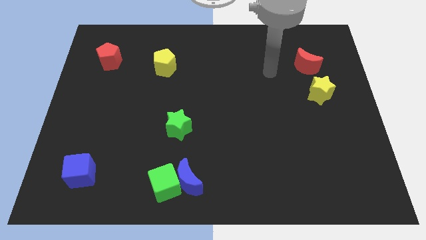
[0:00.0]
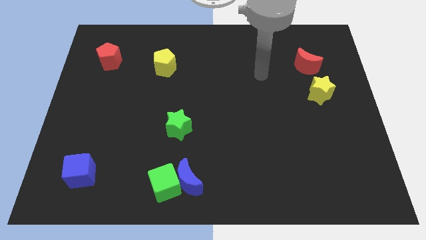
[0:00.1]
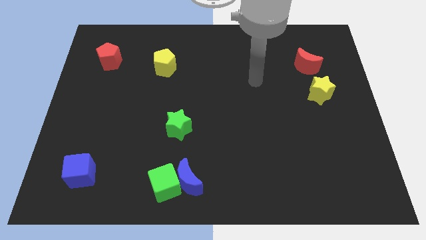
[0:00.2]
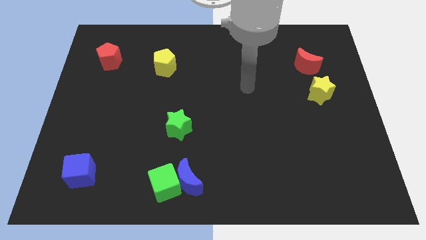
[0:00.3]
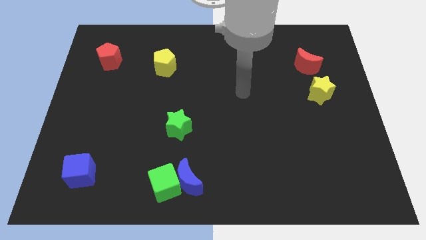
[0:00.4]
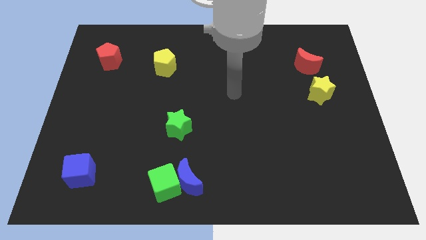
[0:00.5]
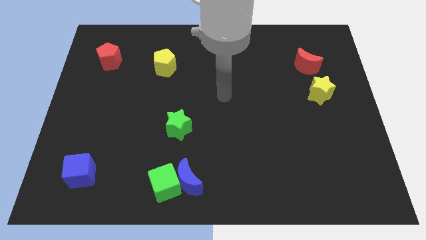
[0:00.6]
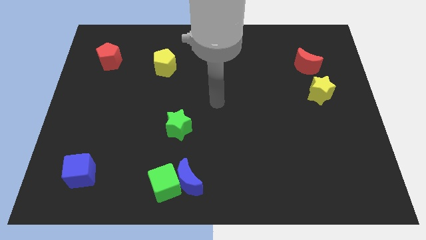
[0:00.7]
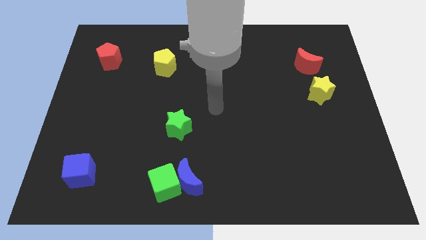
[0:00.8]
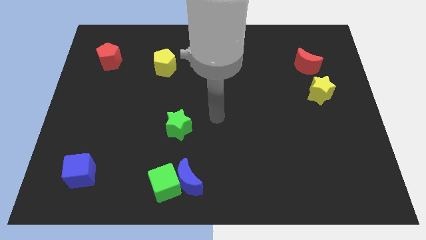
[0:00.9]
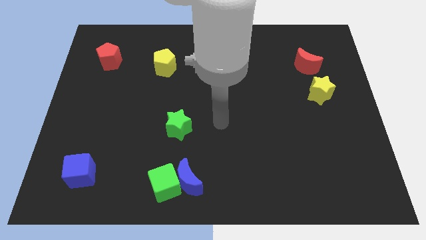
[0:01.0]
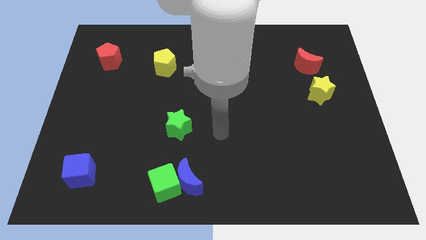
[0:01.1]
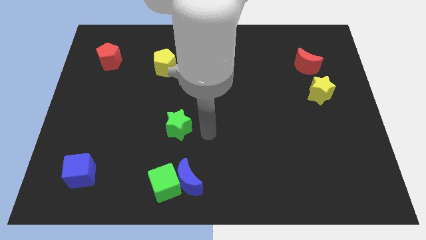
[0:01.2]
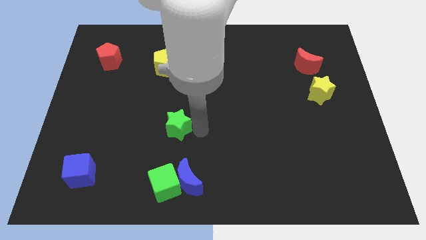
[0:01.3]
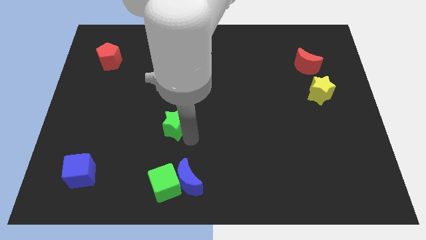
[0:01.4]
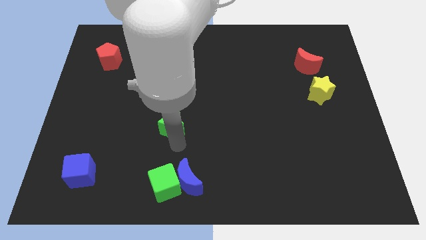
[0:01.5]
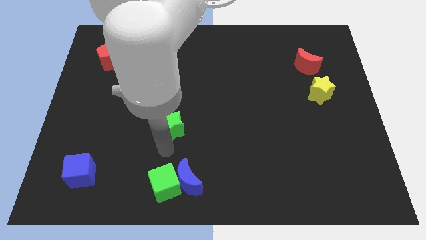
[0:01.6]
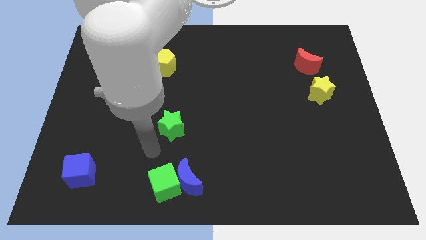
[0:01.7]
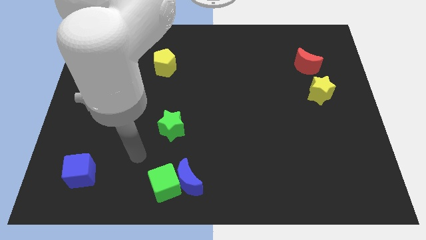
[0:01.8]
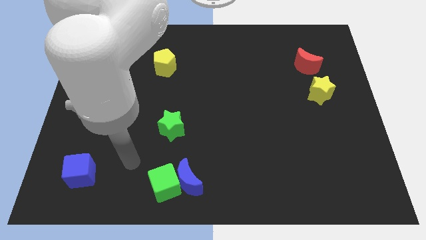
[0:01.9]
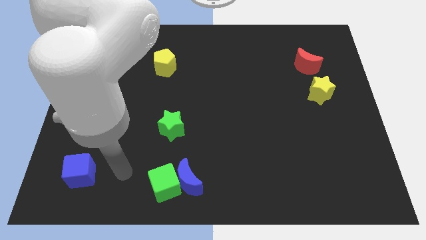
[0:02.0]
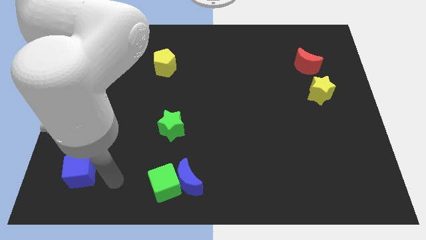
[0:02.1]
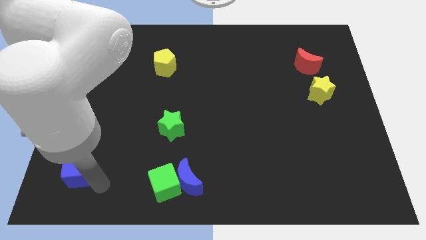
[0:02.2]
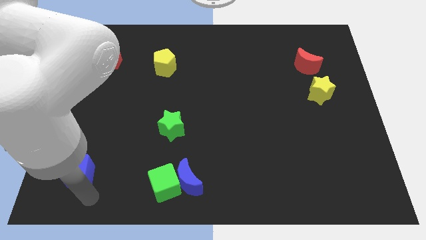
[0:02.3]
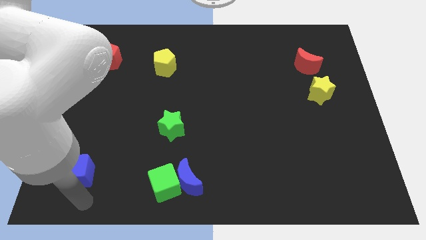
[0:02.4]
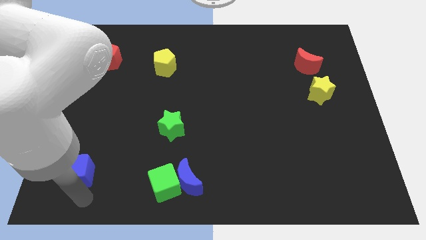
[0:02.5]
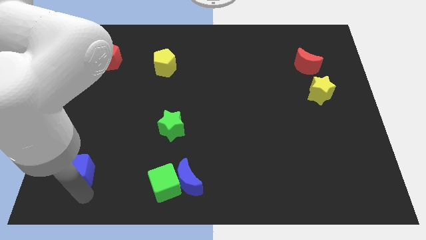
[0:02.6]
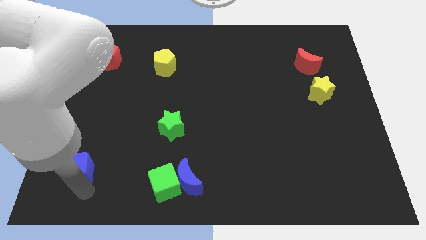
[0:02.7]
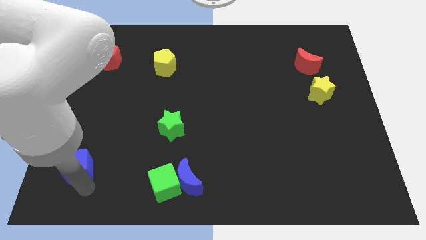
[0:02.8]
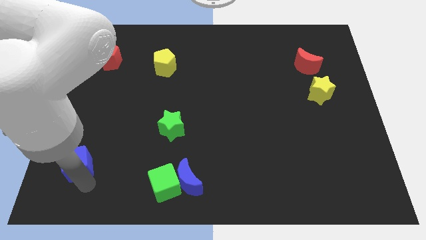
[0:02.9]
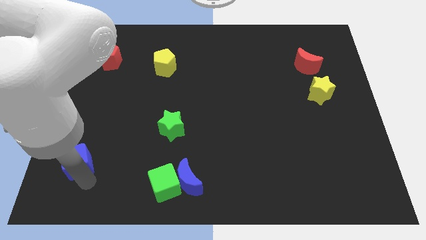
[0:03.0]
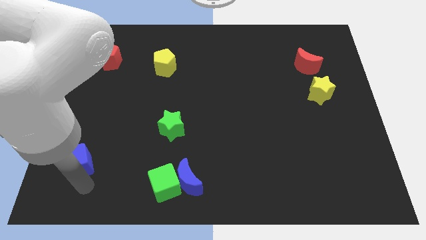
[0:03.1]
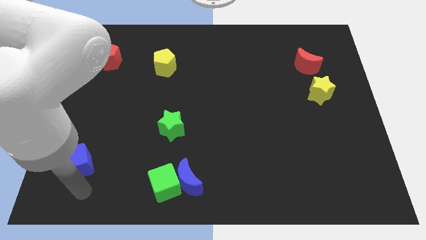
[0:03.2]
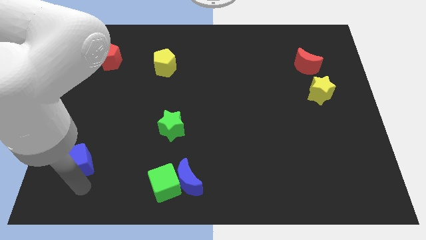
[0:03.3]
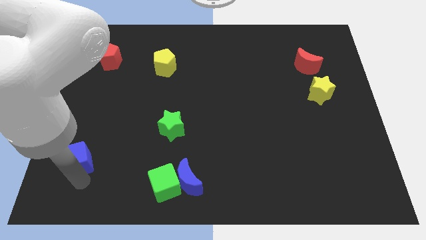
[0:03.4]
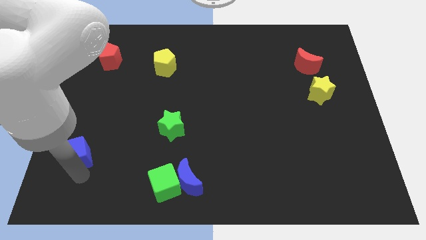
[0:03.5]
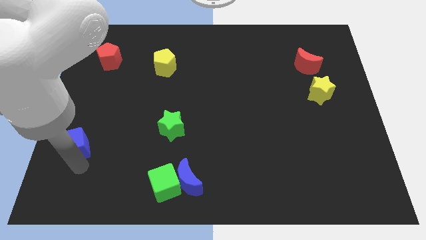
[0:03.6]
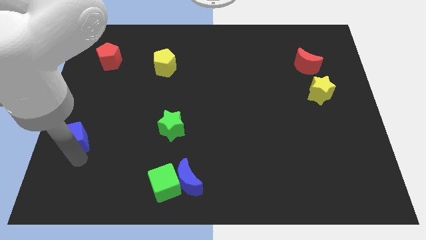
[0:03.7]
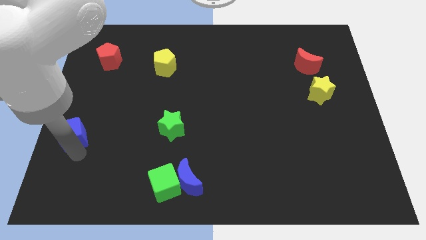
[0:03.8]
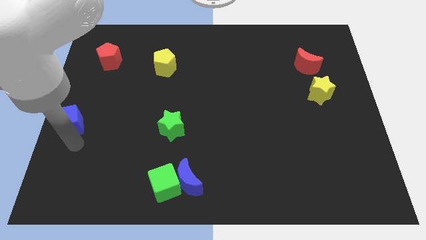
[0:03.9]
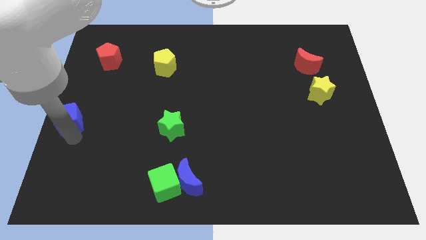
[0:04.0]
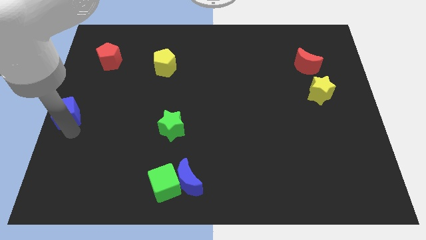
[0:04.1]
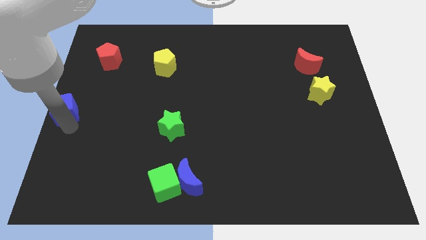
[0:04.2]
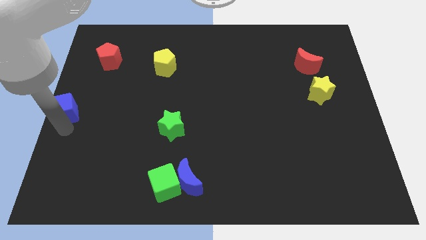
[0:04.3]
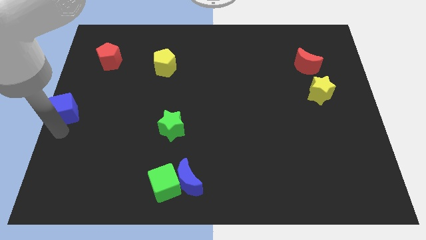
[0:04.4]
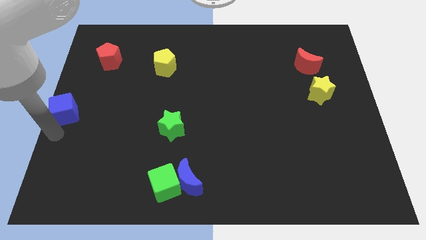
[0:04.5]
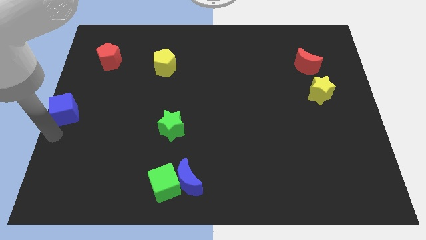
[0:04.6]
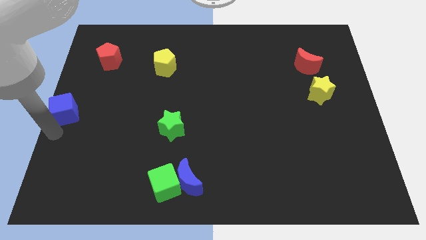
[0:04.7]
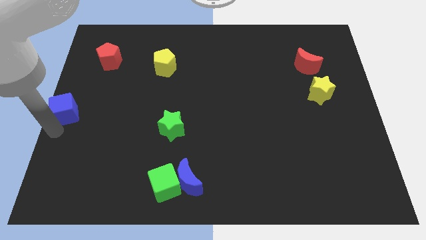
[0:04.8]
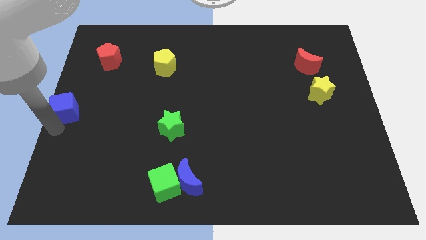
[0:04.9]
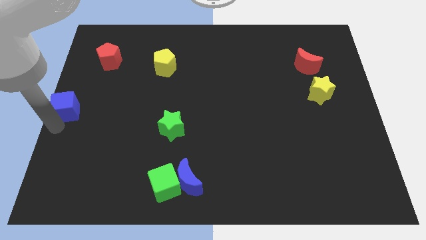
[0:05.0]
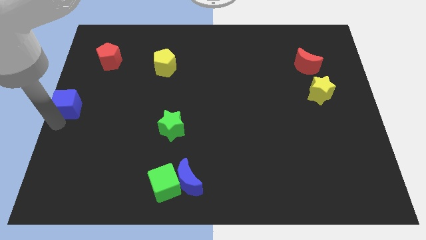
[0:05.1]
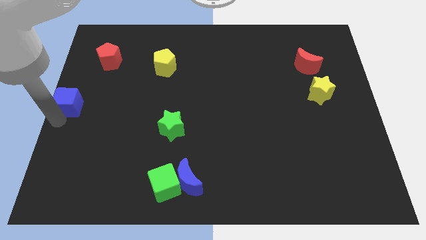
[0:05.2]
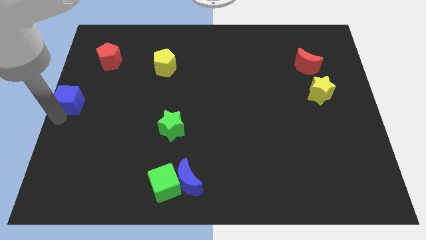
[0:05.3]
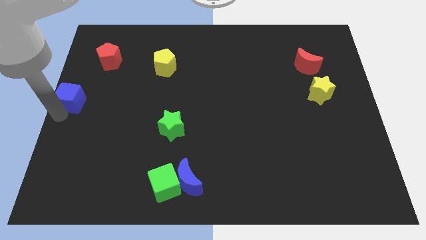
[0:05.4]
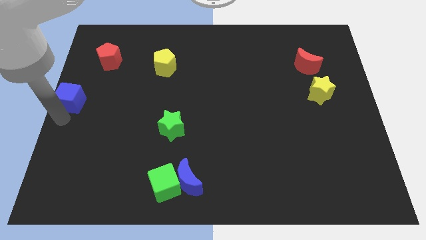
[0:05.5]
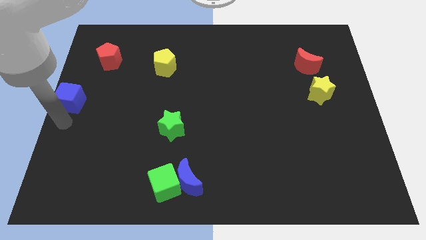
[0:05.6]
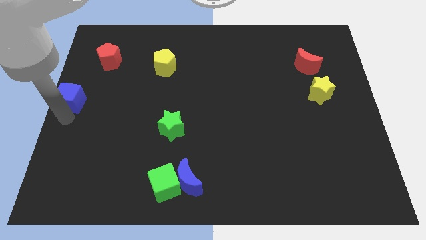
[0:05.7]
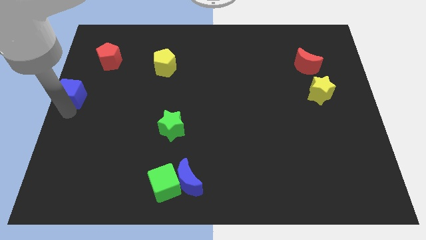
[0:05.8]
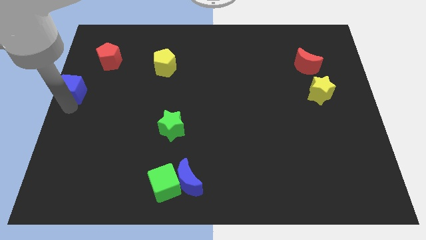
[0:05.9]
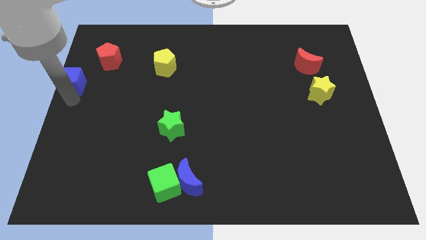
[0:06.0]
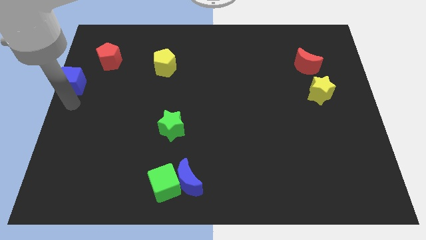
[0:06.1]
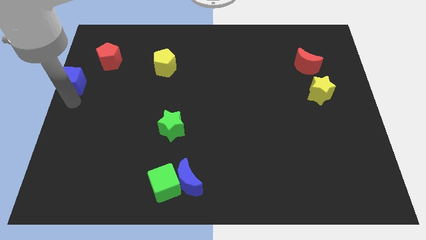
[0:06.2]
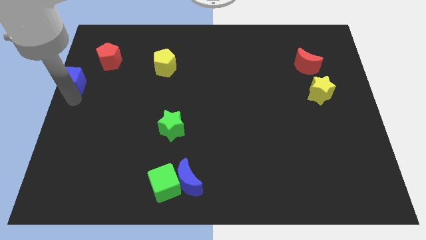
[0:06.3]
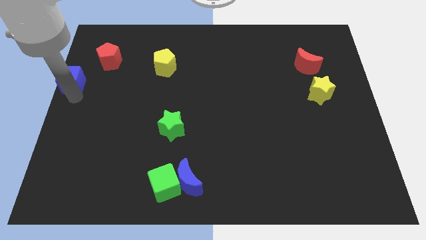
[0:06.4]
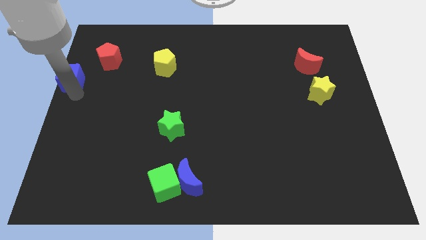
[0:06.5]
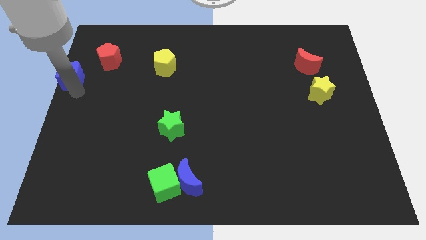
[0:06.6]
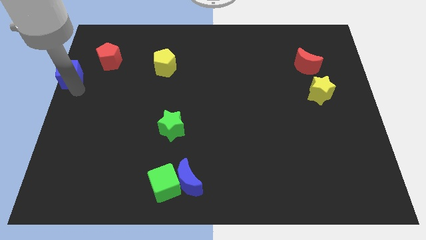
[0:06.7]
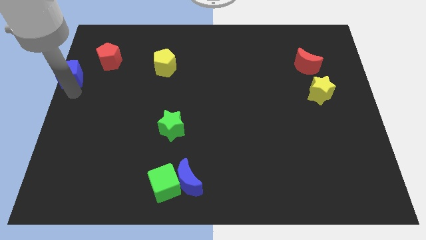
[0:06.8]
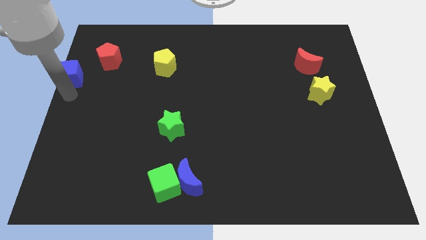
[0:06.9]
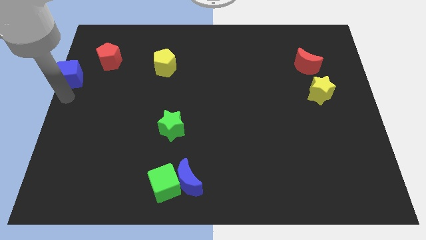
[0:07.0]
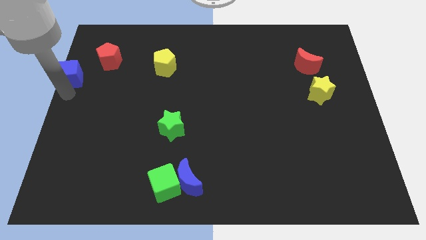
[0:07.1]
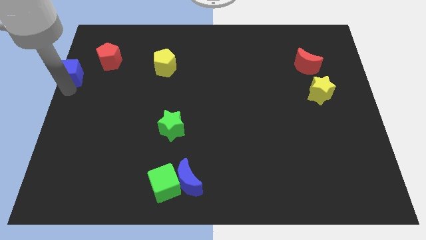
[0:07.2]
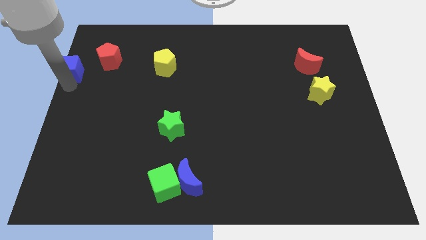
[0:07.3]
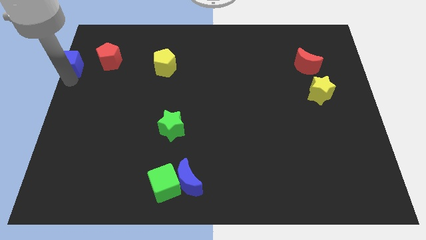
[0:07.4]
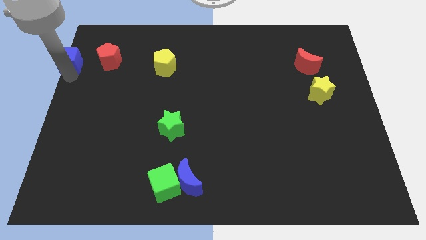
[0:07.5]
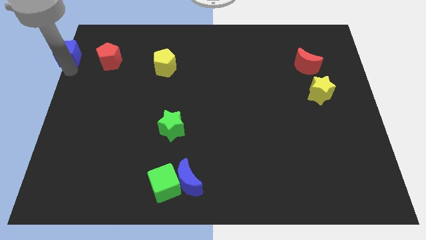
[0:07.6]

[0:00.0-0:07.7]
push the blue cube to the top left
